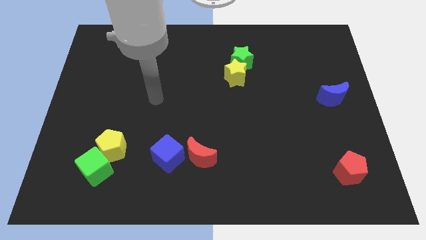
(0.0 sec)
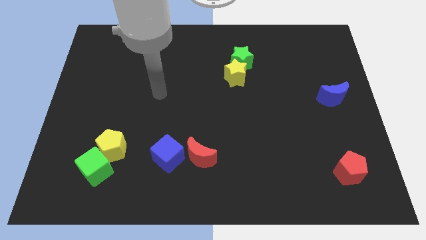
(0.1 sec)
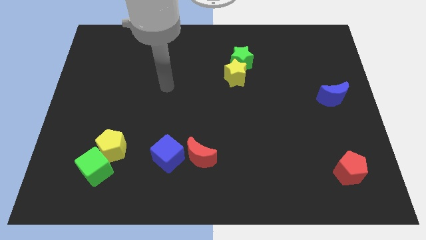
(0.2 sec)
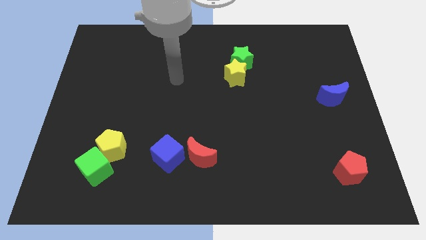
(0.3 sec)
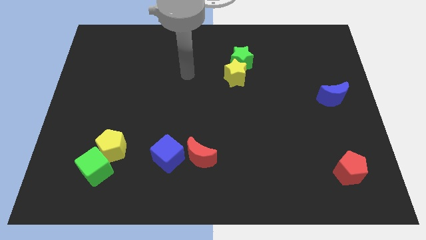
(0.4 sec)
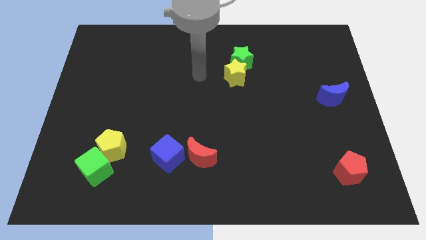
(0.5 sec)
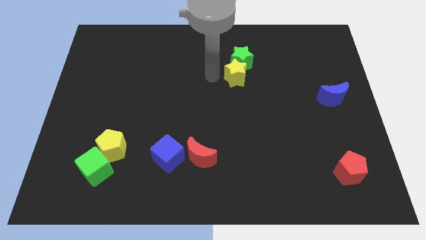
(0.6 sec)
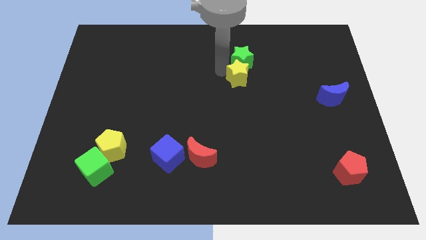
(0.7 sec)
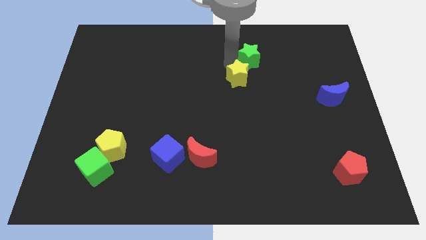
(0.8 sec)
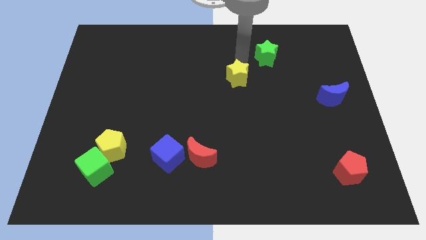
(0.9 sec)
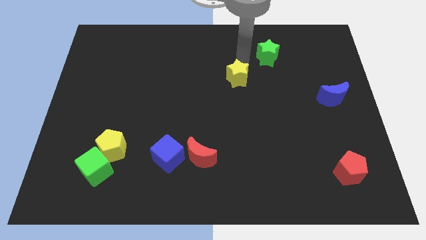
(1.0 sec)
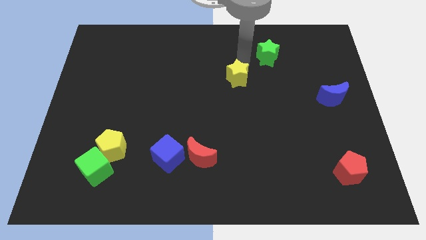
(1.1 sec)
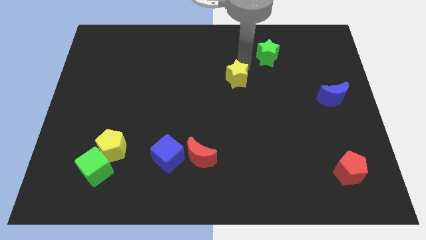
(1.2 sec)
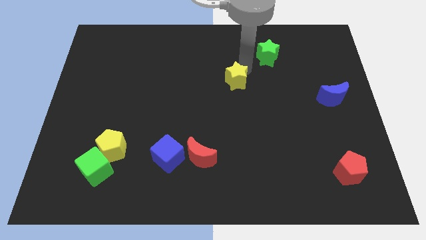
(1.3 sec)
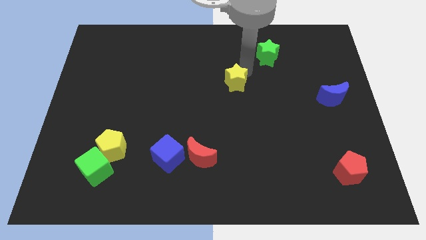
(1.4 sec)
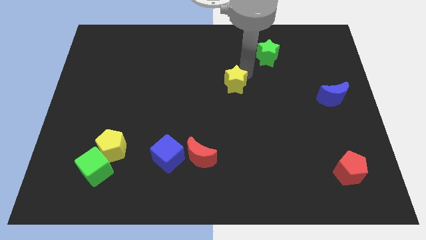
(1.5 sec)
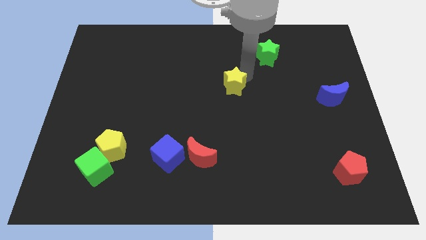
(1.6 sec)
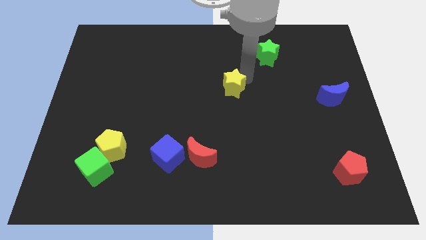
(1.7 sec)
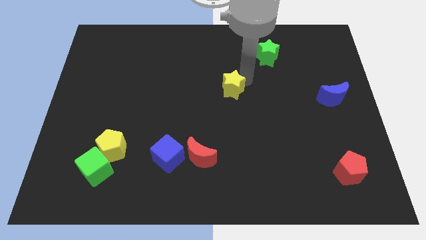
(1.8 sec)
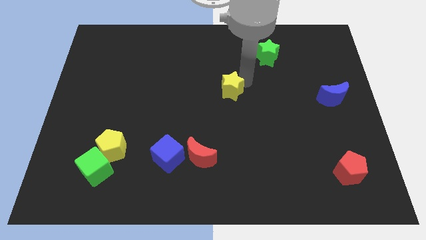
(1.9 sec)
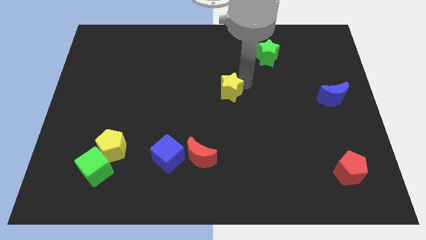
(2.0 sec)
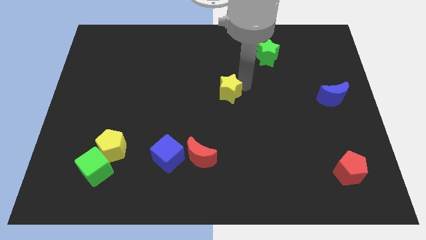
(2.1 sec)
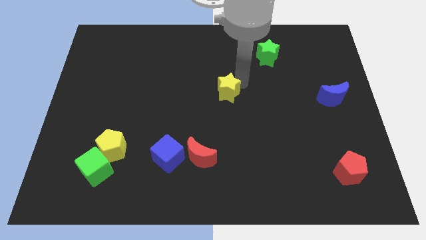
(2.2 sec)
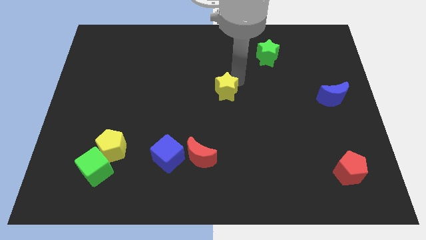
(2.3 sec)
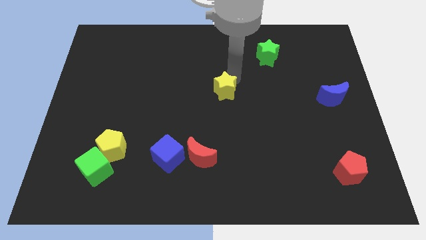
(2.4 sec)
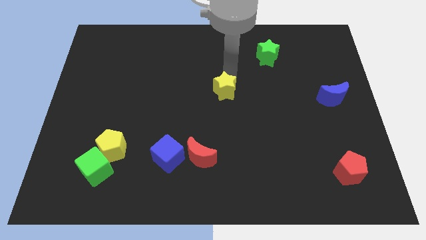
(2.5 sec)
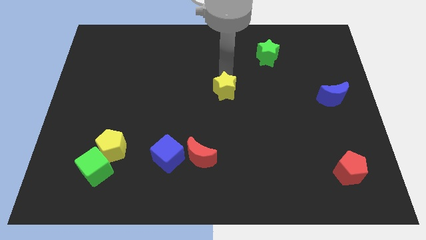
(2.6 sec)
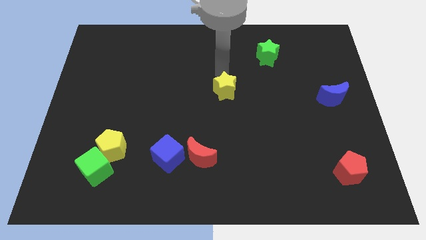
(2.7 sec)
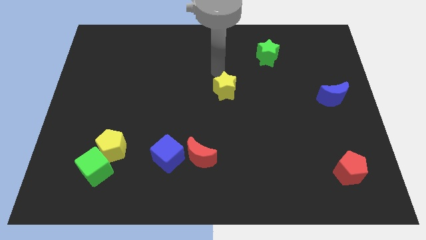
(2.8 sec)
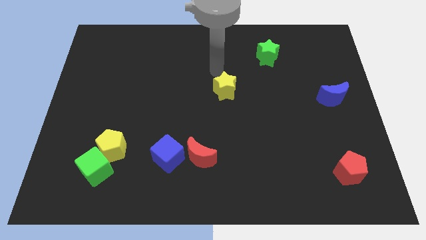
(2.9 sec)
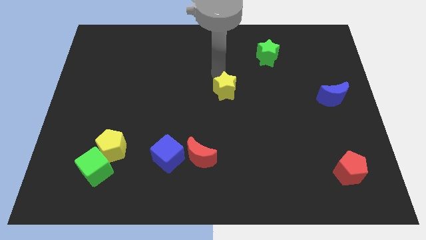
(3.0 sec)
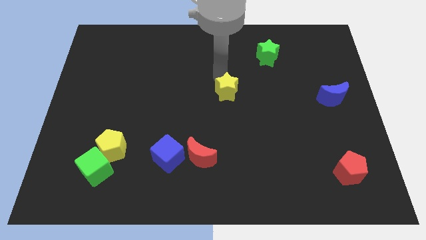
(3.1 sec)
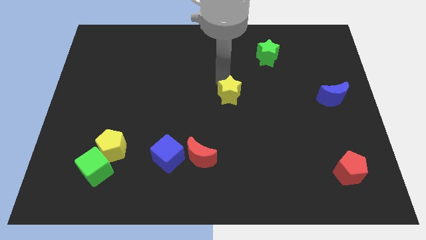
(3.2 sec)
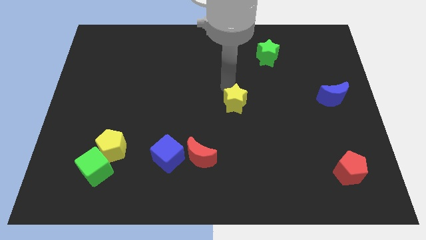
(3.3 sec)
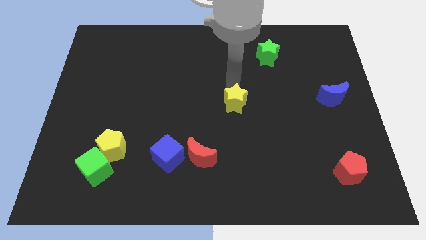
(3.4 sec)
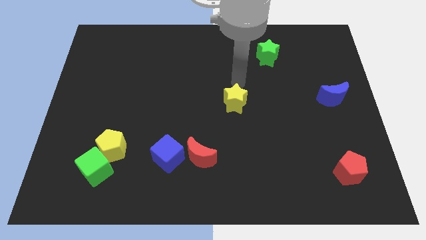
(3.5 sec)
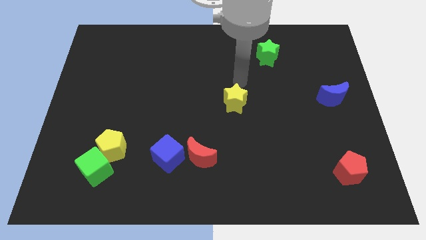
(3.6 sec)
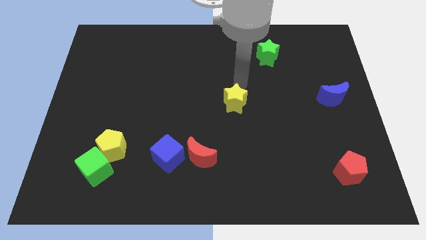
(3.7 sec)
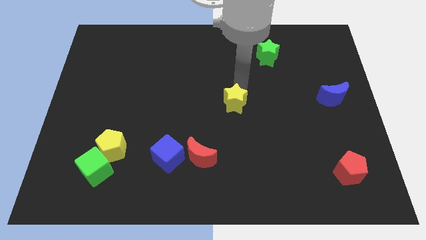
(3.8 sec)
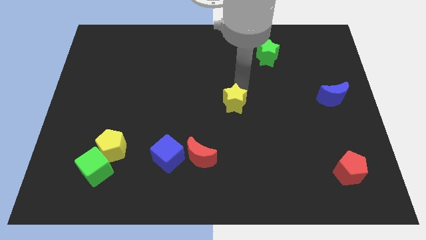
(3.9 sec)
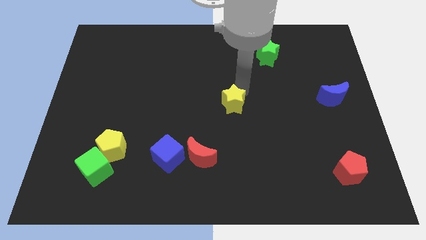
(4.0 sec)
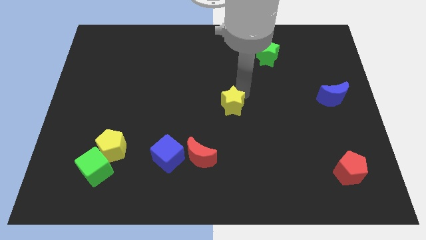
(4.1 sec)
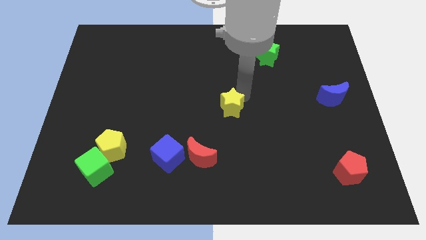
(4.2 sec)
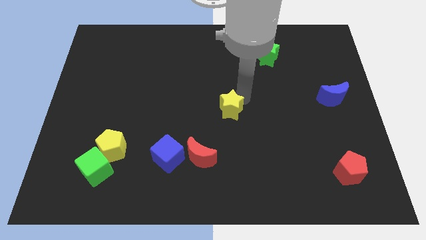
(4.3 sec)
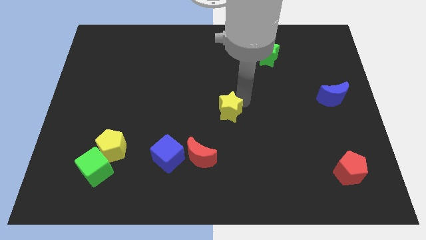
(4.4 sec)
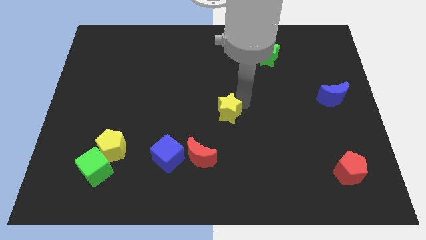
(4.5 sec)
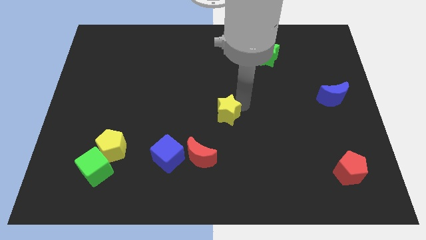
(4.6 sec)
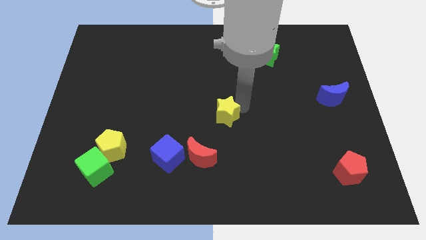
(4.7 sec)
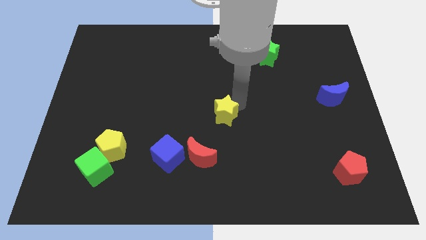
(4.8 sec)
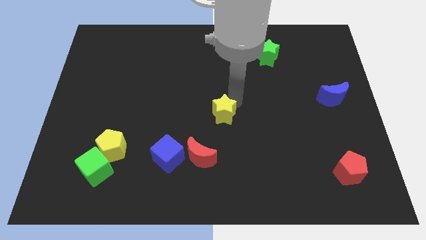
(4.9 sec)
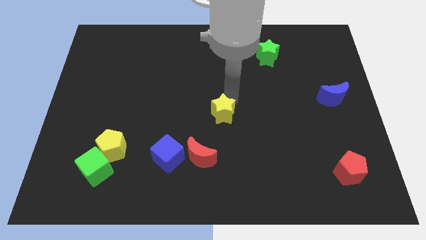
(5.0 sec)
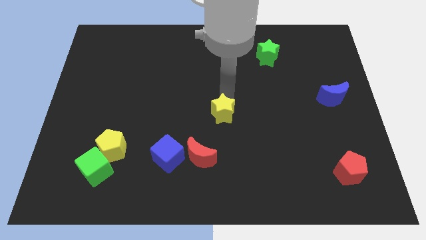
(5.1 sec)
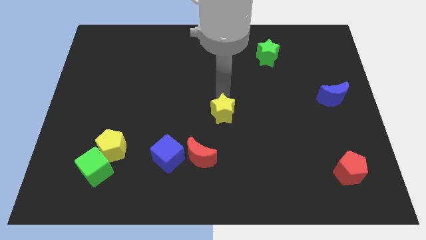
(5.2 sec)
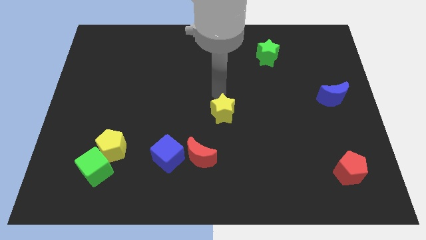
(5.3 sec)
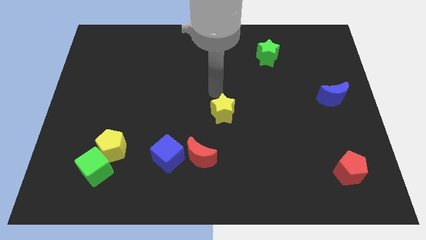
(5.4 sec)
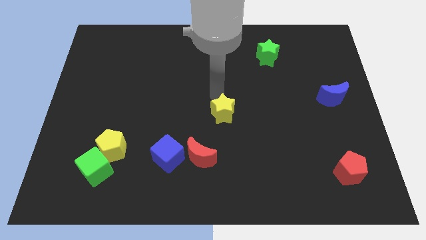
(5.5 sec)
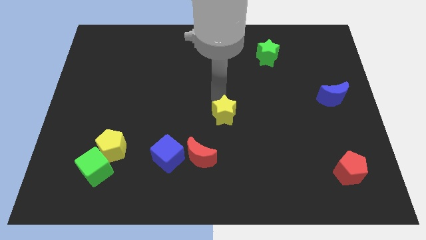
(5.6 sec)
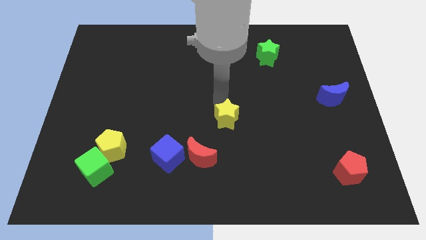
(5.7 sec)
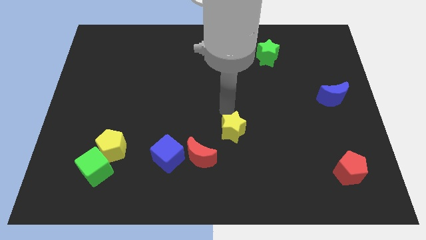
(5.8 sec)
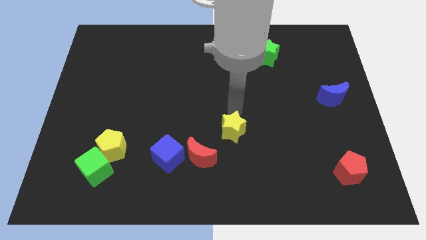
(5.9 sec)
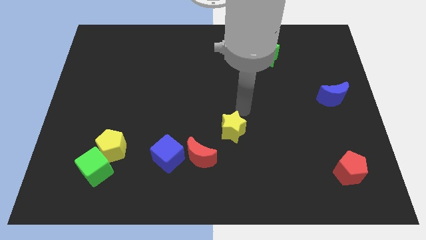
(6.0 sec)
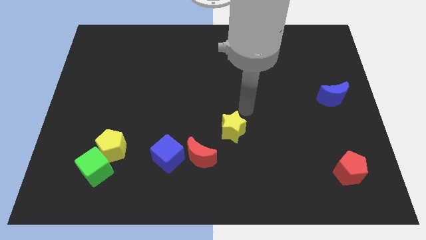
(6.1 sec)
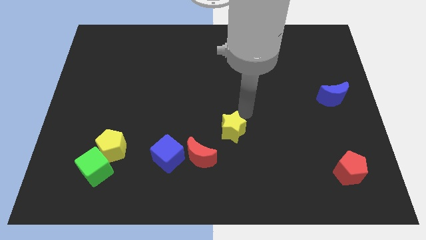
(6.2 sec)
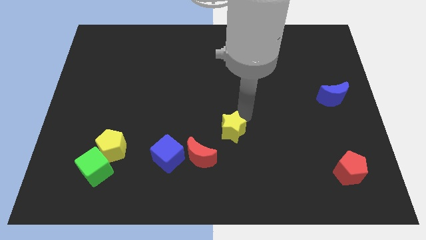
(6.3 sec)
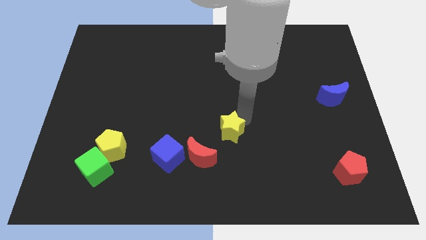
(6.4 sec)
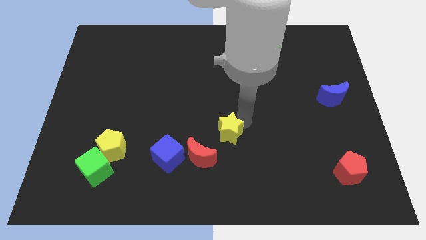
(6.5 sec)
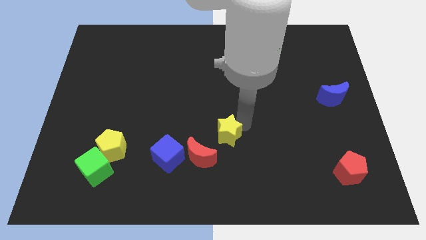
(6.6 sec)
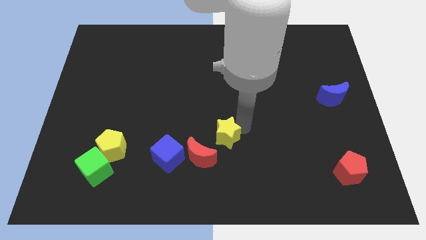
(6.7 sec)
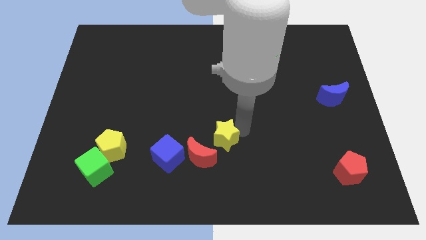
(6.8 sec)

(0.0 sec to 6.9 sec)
push the yellow star right of the blue cube
